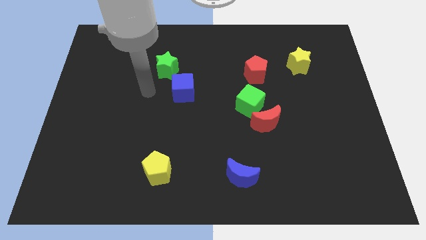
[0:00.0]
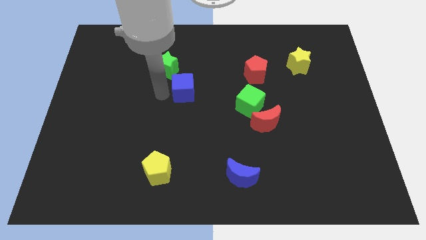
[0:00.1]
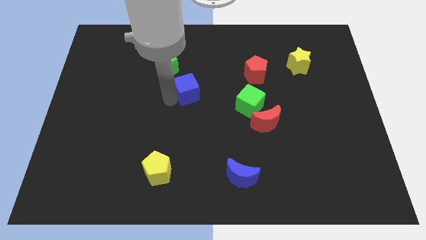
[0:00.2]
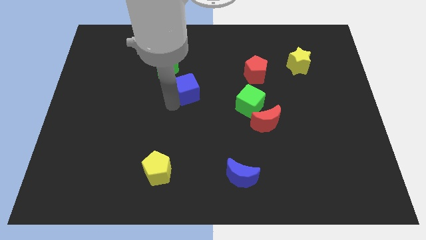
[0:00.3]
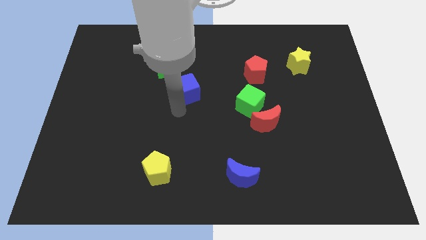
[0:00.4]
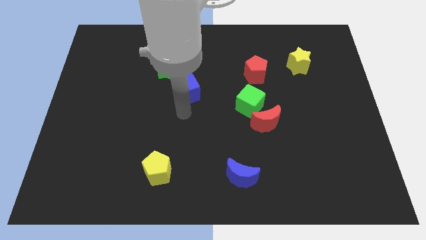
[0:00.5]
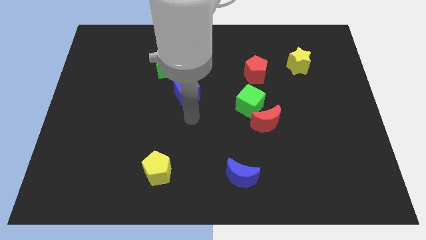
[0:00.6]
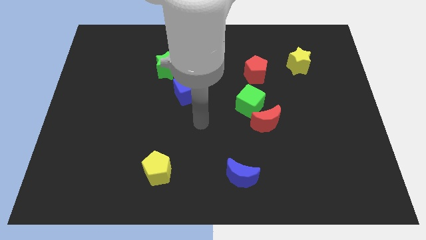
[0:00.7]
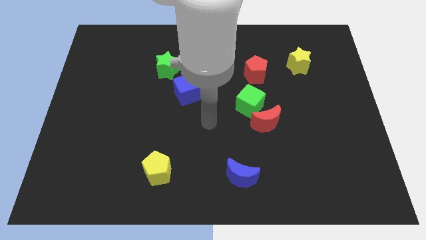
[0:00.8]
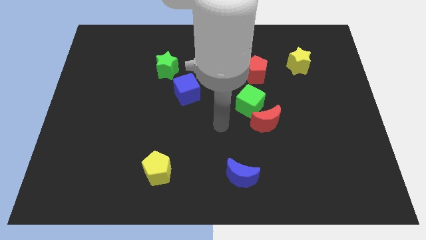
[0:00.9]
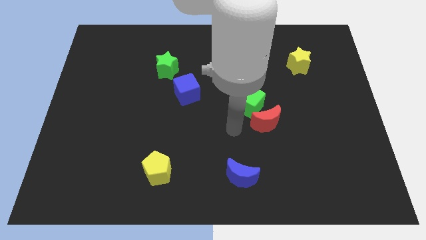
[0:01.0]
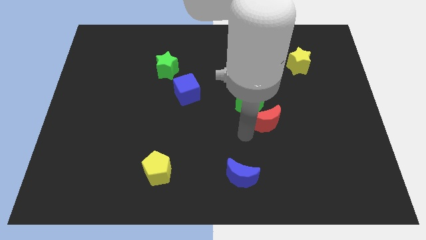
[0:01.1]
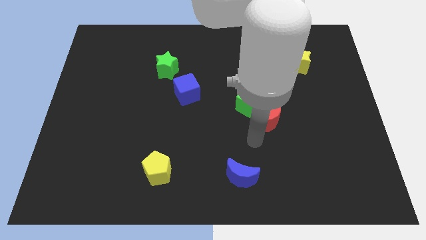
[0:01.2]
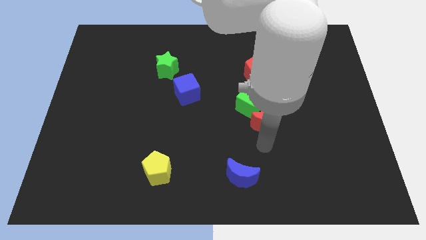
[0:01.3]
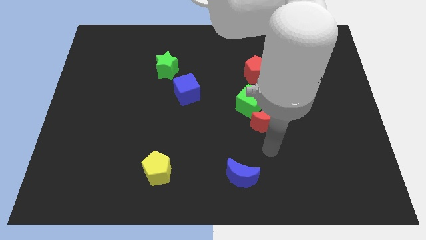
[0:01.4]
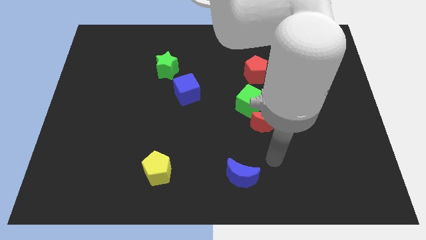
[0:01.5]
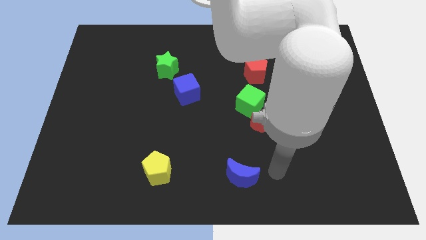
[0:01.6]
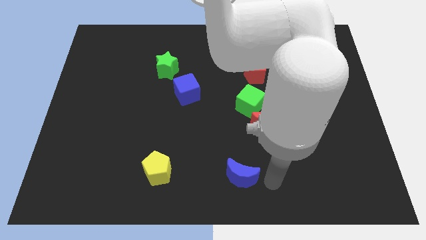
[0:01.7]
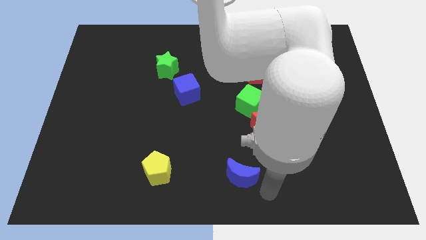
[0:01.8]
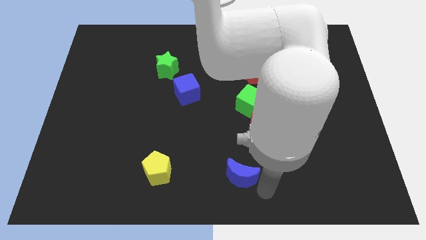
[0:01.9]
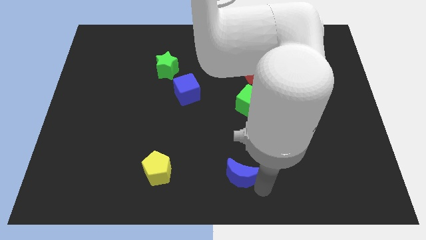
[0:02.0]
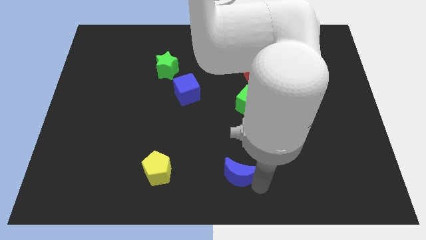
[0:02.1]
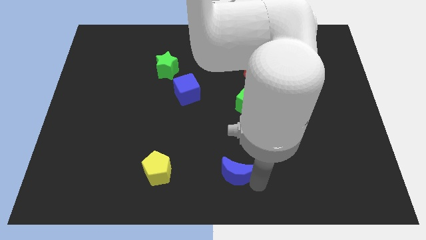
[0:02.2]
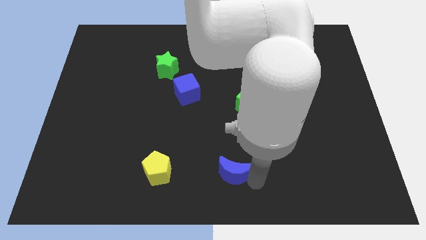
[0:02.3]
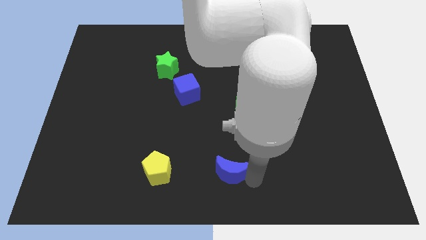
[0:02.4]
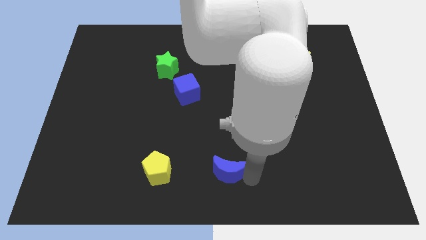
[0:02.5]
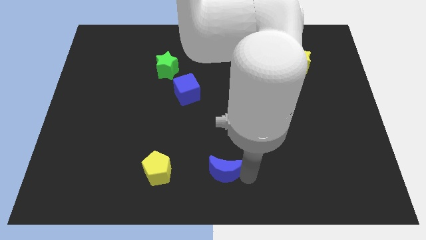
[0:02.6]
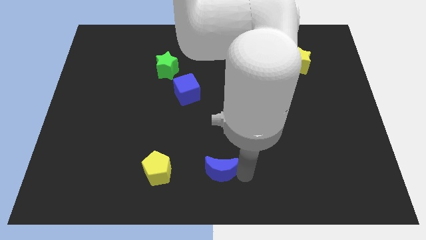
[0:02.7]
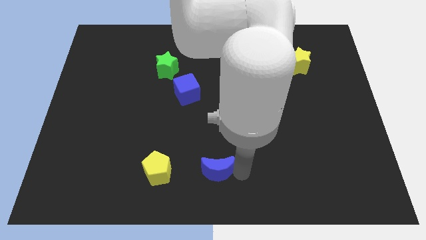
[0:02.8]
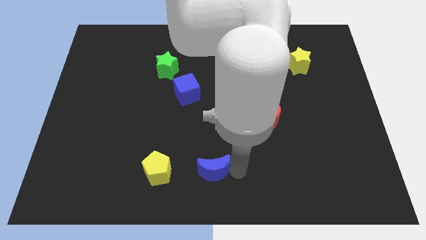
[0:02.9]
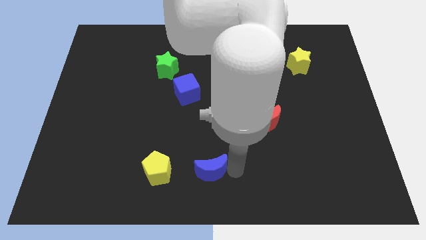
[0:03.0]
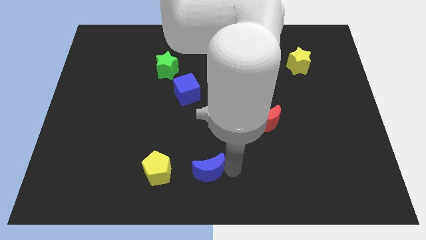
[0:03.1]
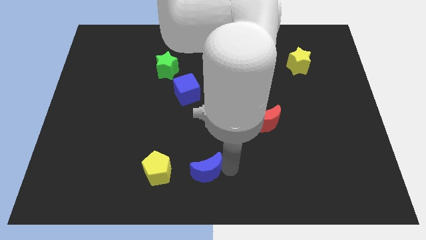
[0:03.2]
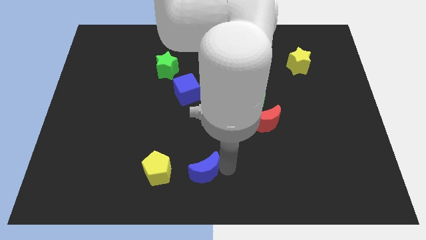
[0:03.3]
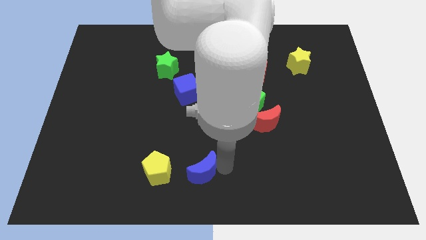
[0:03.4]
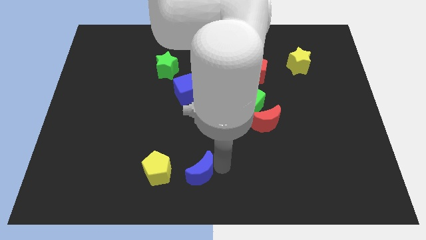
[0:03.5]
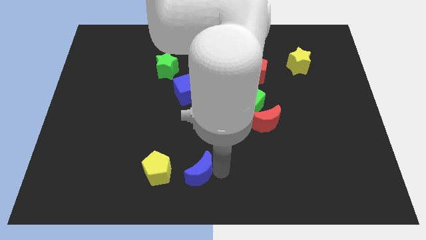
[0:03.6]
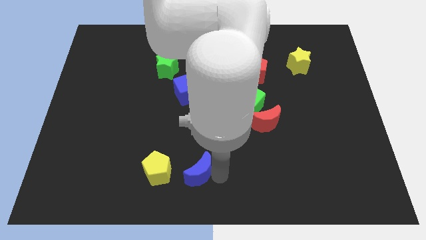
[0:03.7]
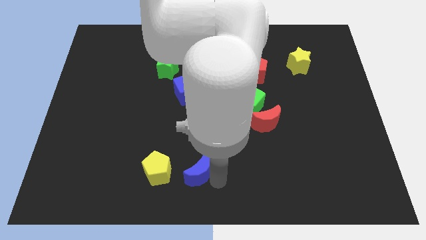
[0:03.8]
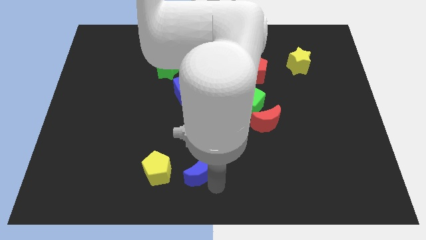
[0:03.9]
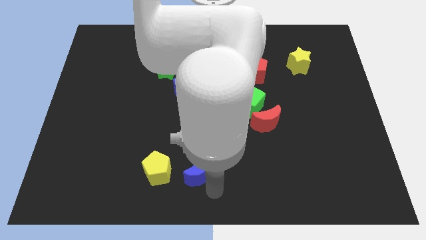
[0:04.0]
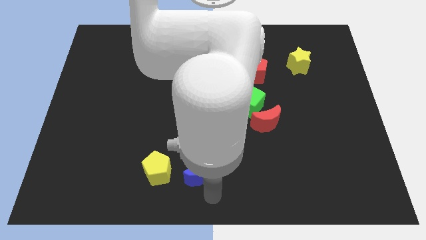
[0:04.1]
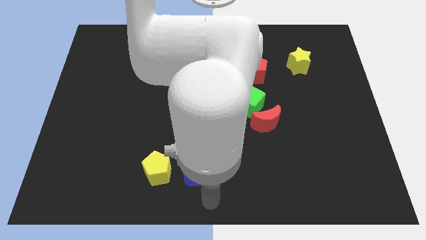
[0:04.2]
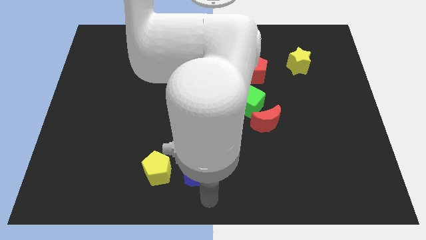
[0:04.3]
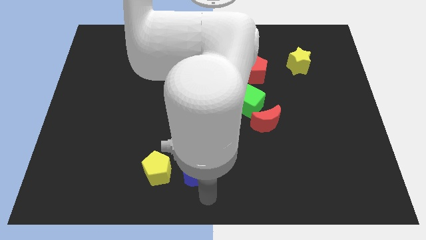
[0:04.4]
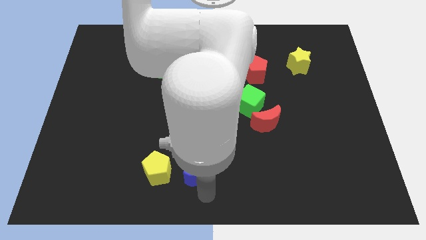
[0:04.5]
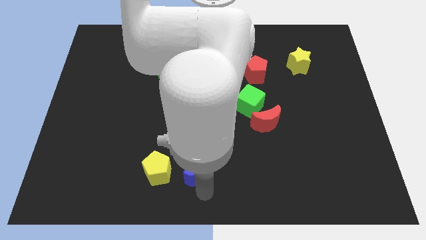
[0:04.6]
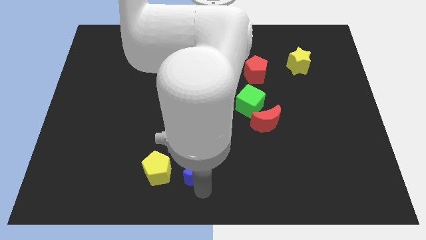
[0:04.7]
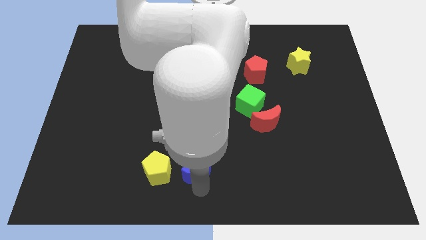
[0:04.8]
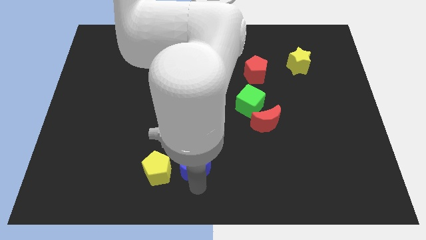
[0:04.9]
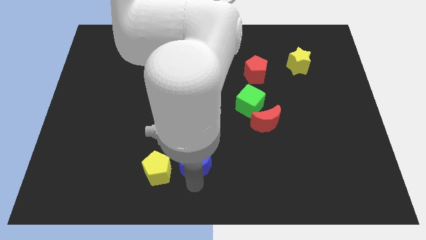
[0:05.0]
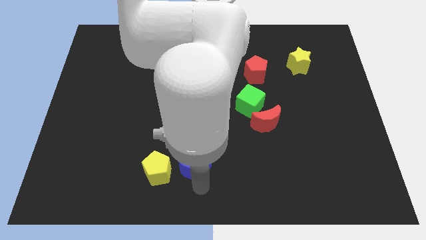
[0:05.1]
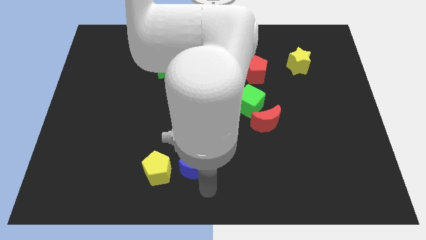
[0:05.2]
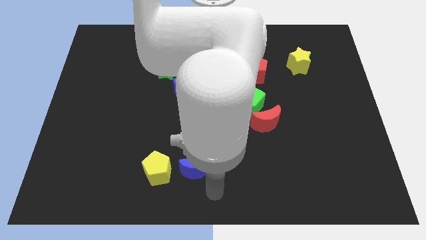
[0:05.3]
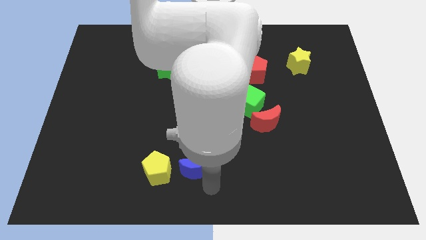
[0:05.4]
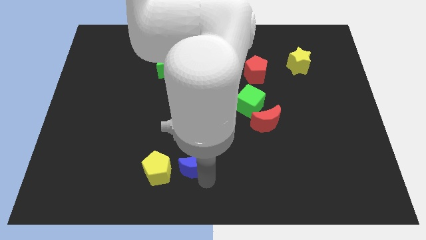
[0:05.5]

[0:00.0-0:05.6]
slide the blue moon to the top right of the yellow pentagon

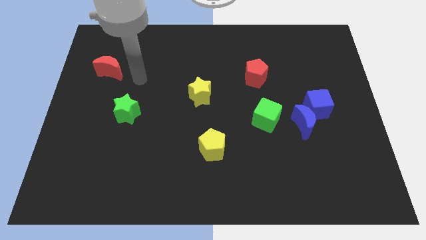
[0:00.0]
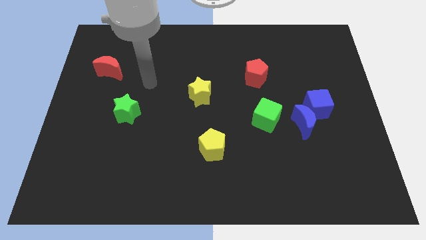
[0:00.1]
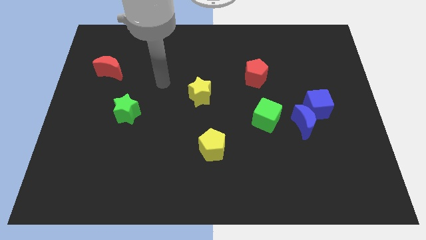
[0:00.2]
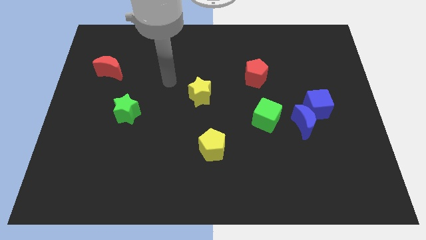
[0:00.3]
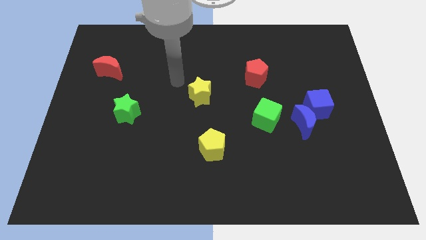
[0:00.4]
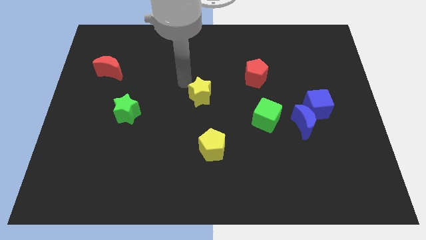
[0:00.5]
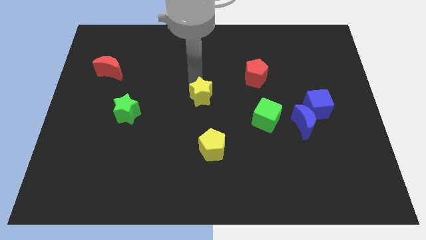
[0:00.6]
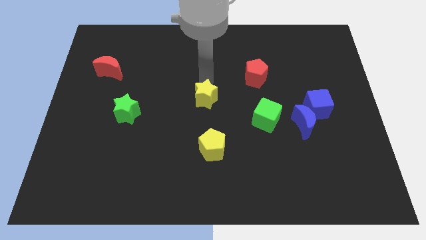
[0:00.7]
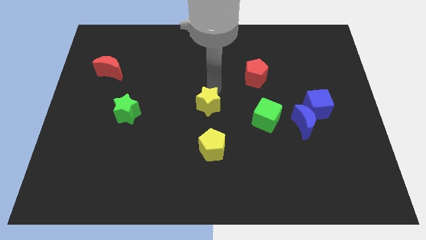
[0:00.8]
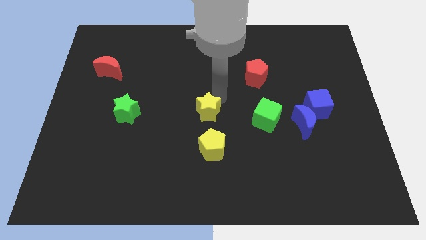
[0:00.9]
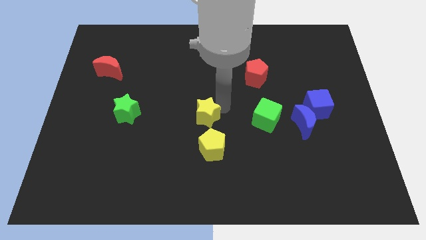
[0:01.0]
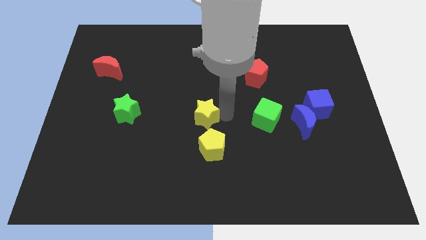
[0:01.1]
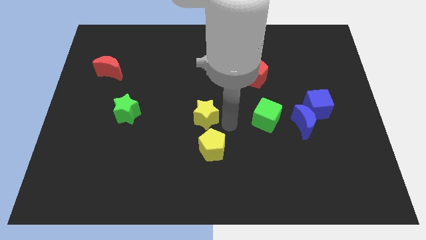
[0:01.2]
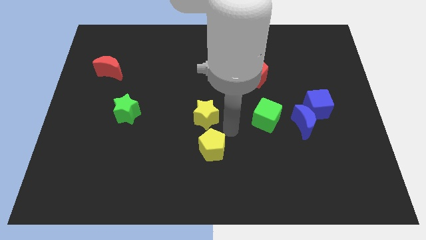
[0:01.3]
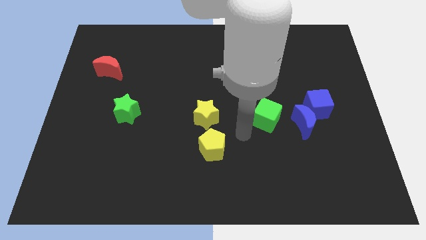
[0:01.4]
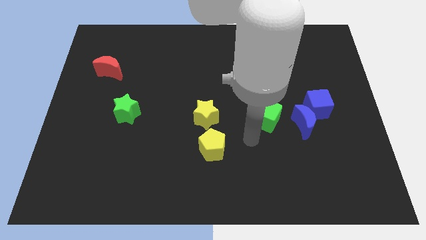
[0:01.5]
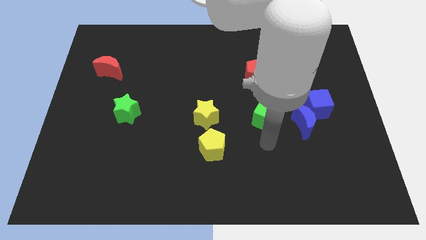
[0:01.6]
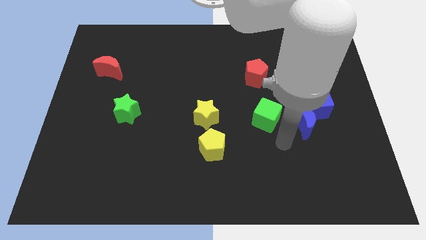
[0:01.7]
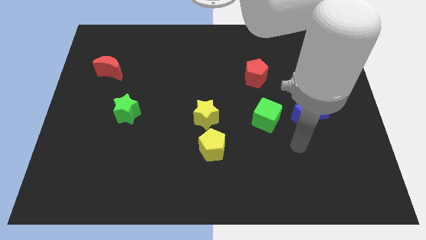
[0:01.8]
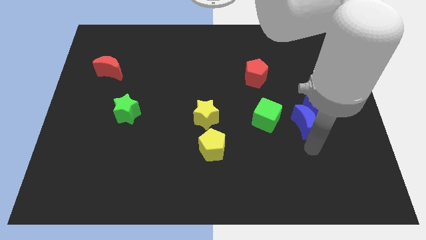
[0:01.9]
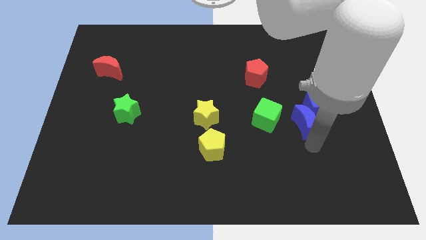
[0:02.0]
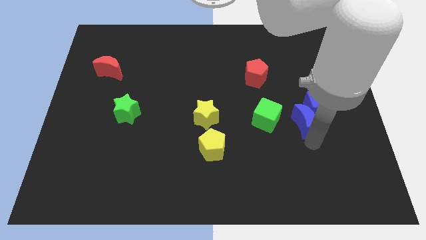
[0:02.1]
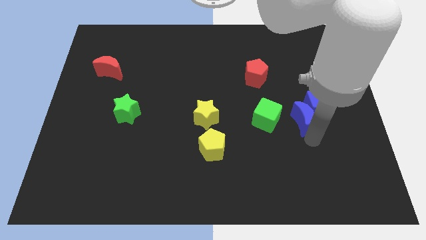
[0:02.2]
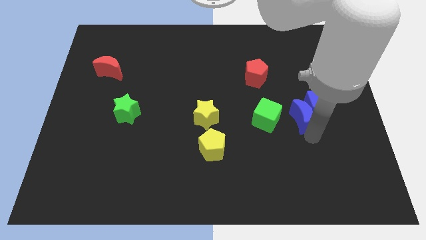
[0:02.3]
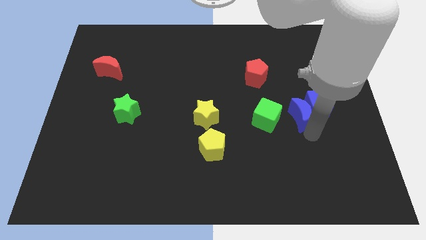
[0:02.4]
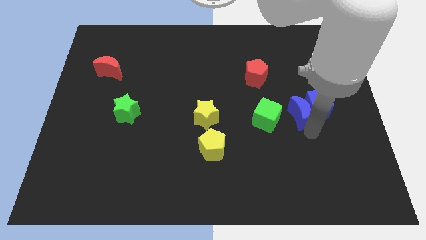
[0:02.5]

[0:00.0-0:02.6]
move the blue moon diagonally up and to the left of the blue cube
